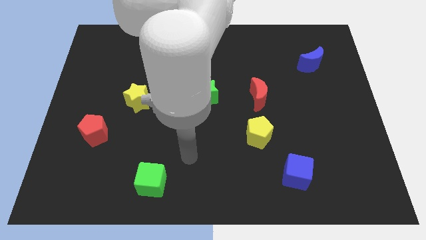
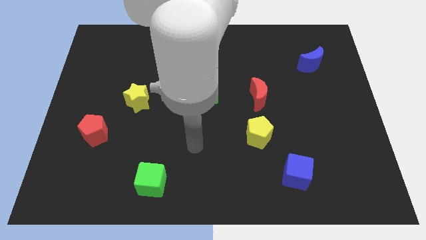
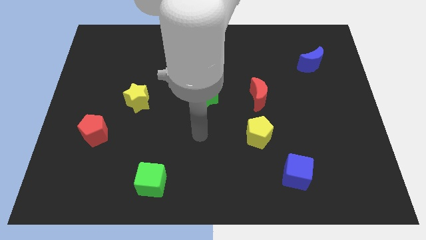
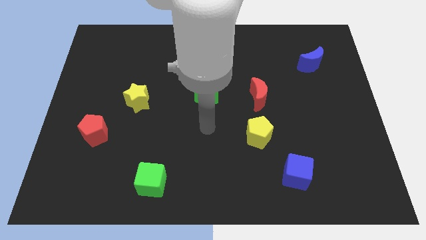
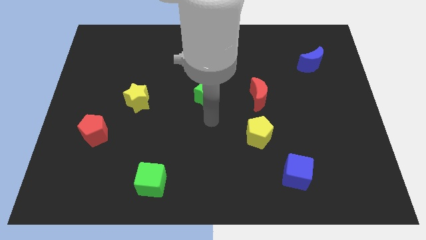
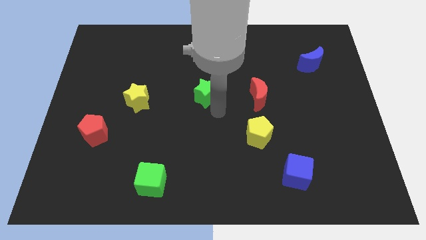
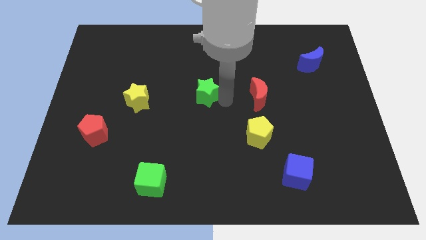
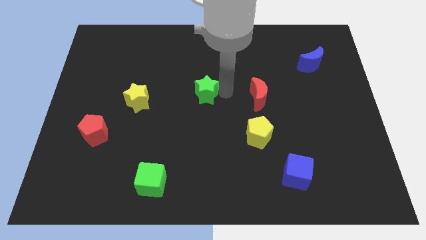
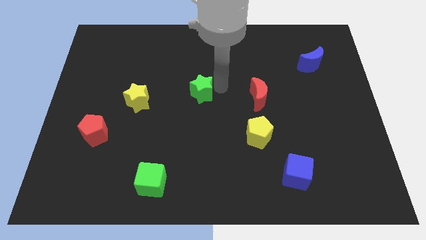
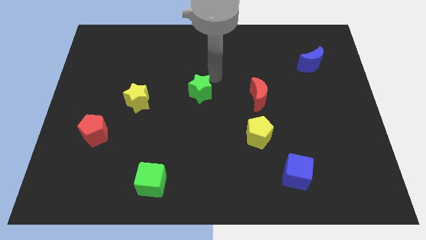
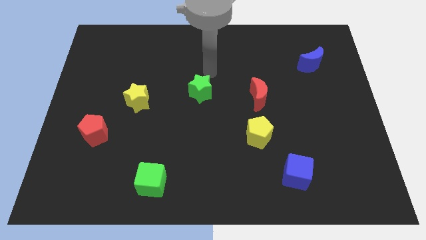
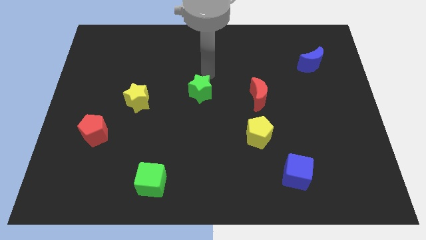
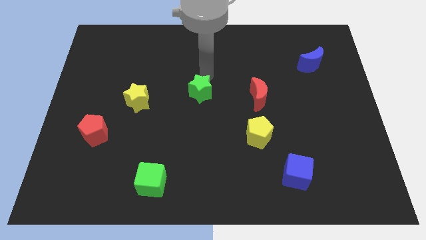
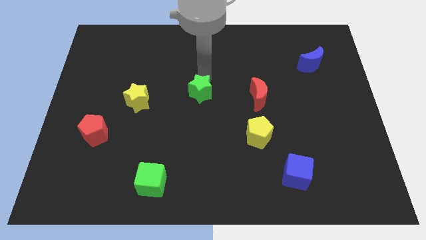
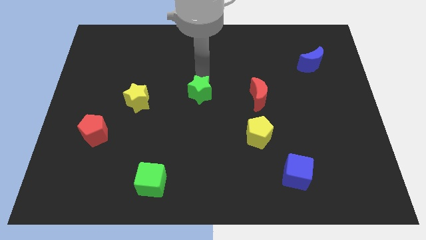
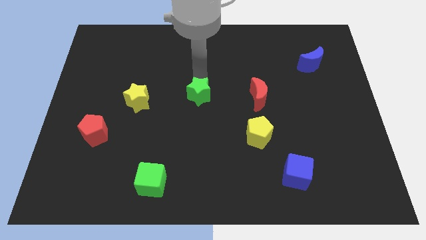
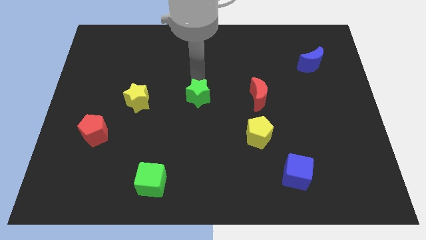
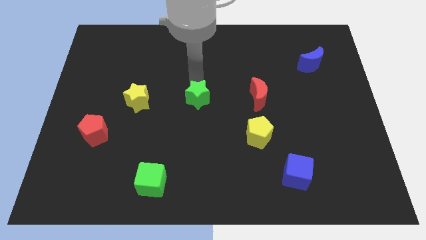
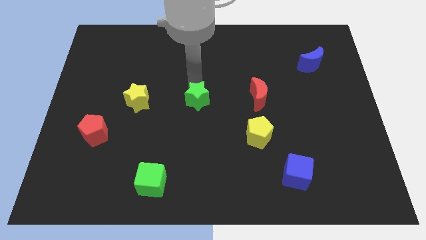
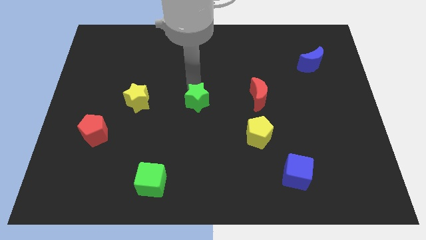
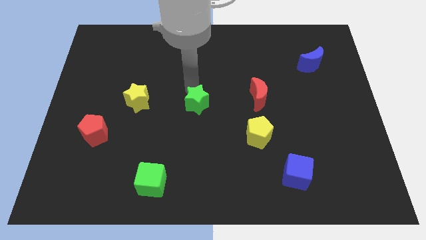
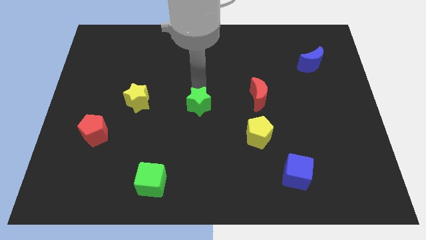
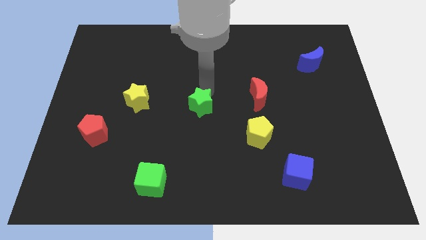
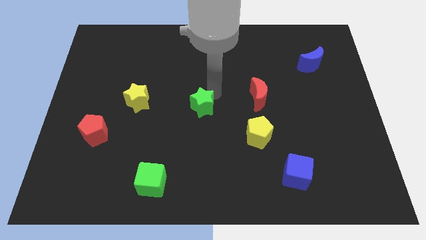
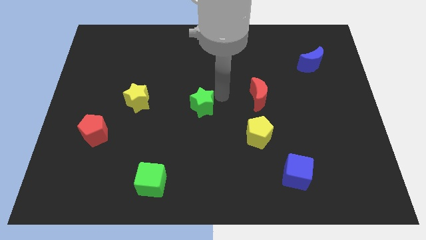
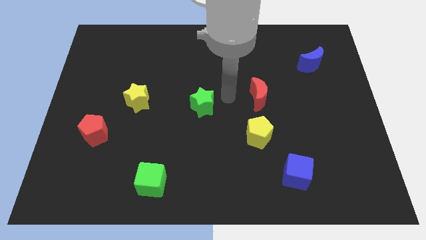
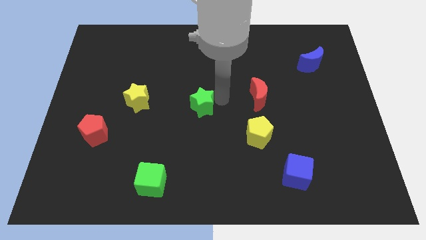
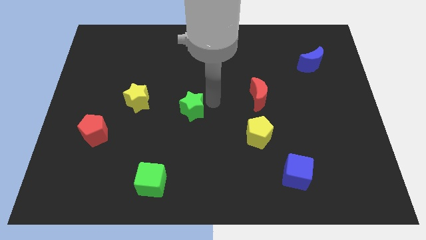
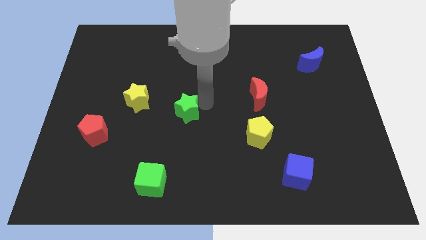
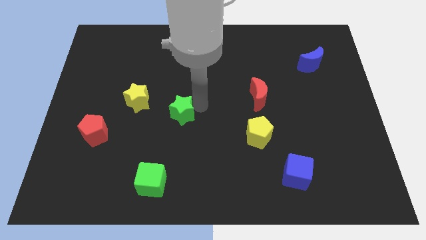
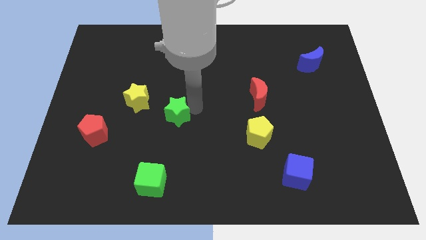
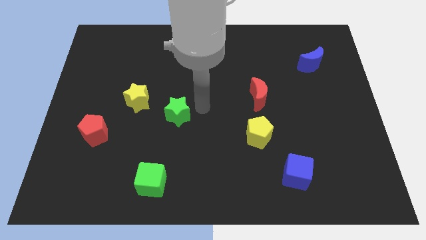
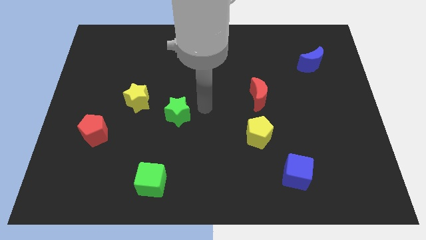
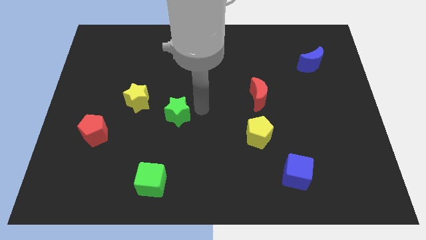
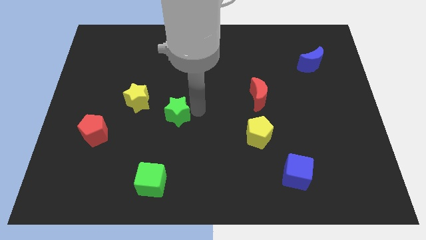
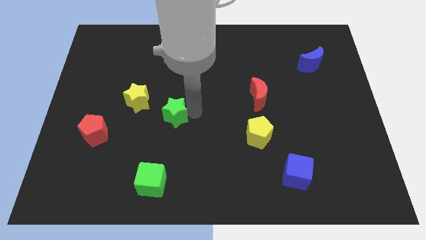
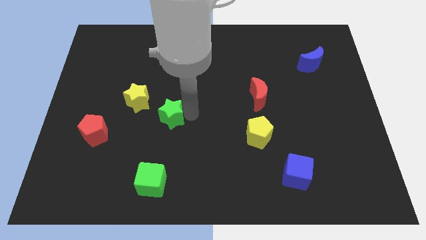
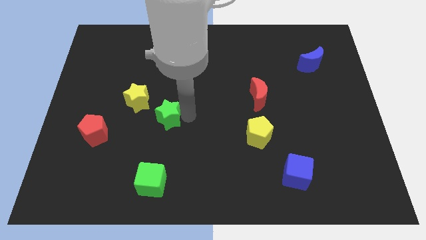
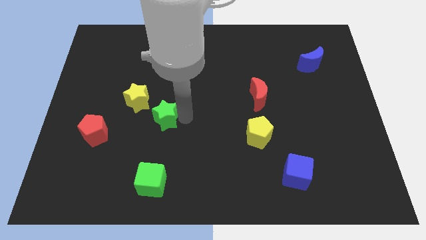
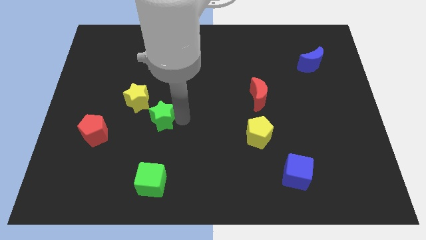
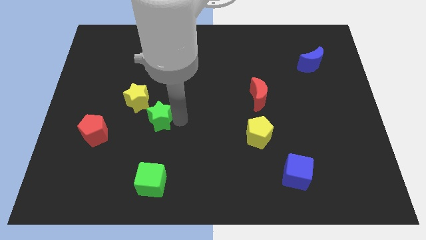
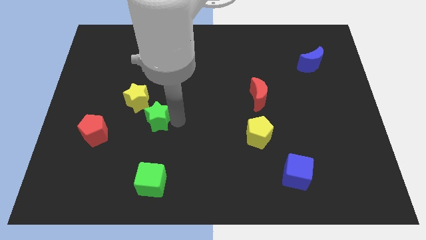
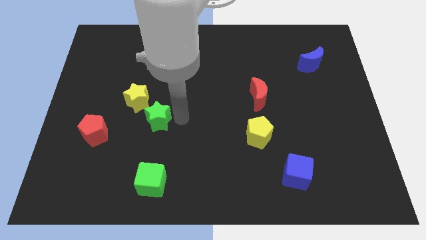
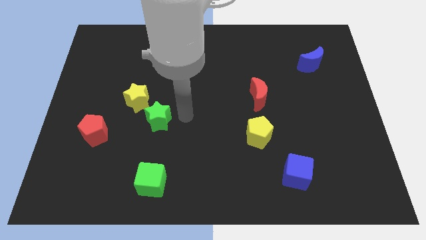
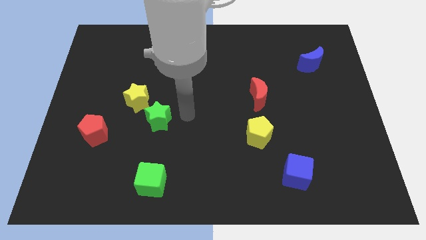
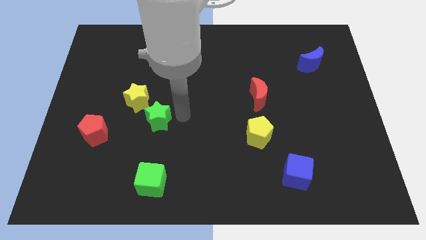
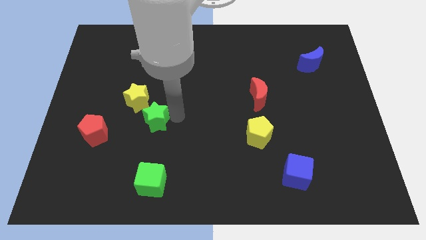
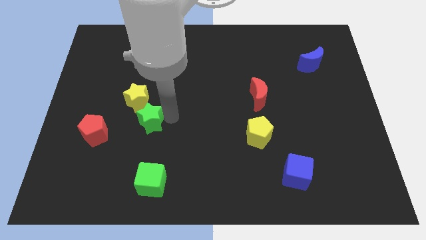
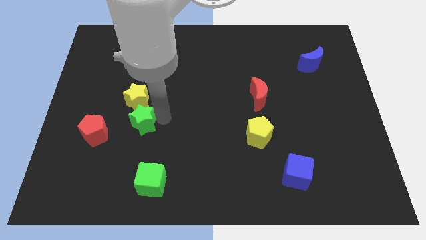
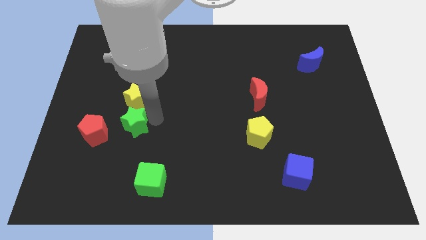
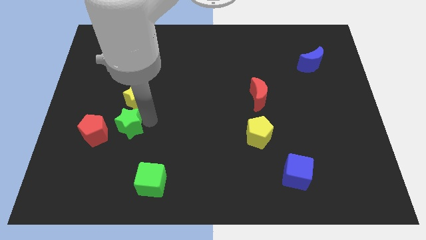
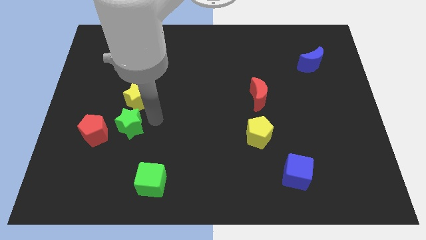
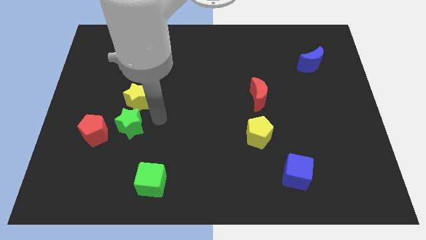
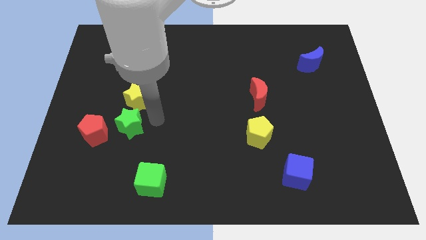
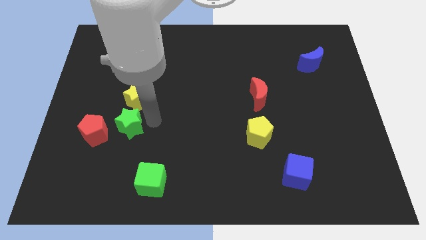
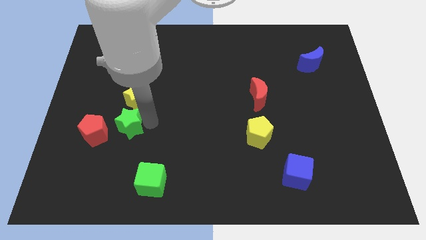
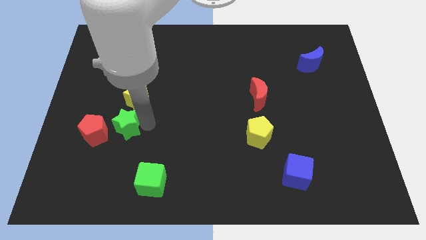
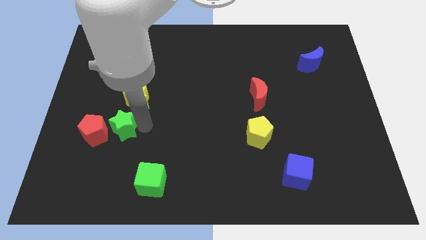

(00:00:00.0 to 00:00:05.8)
push the green star towards the red pentagon

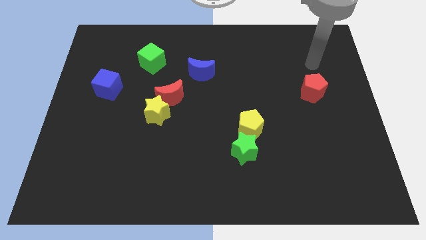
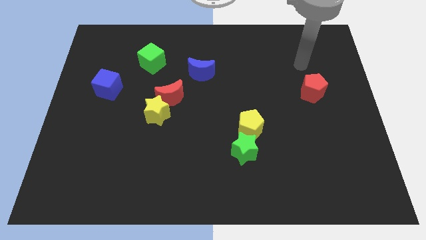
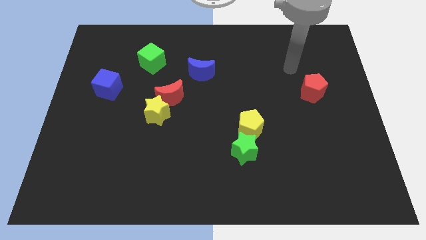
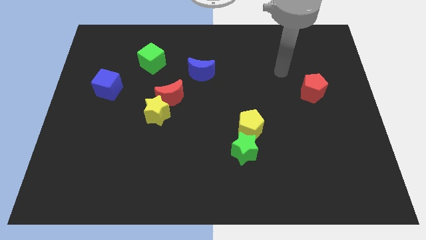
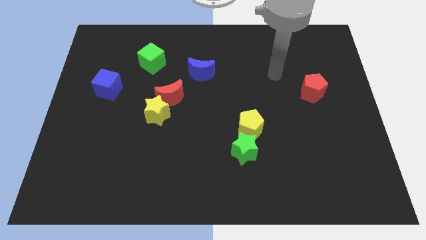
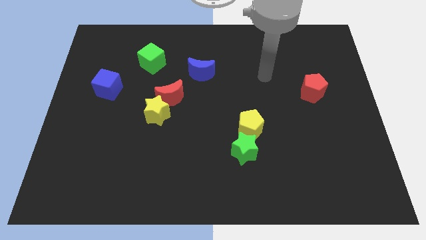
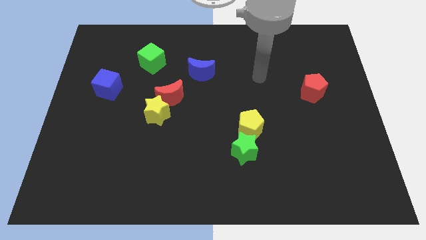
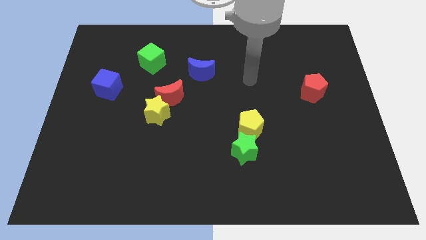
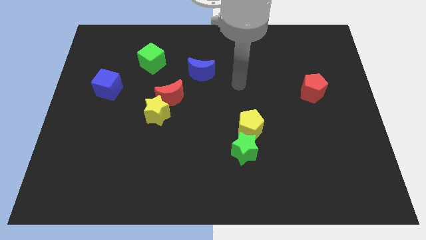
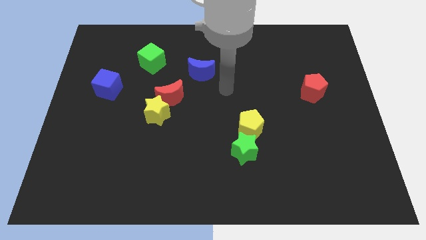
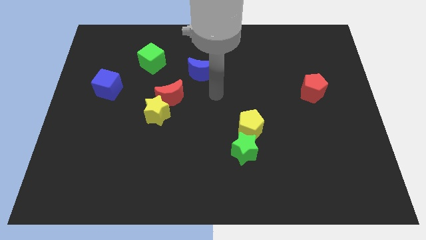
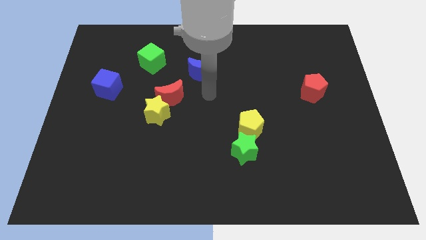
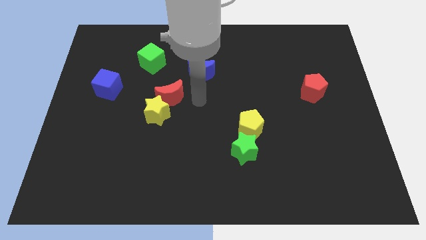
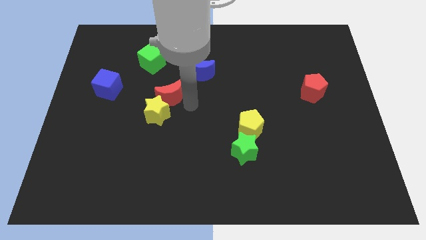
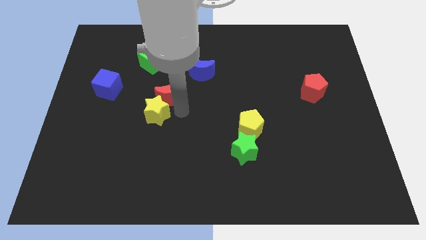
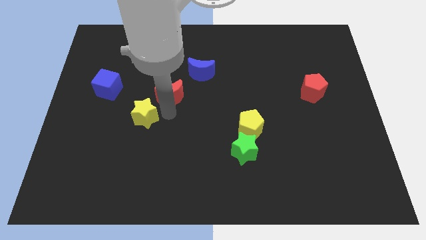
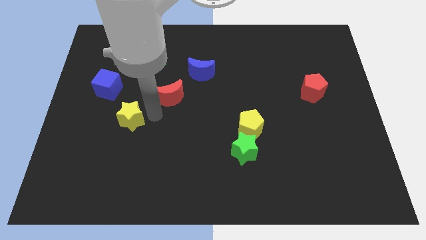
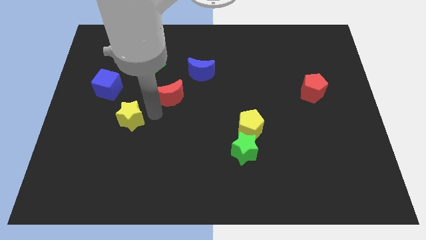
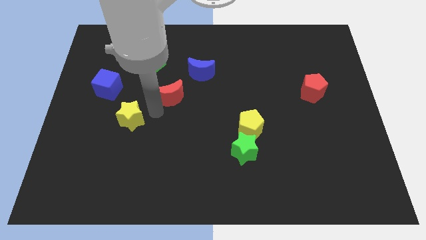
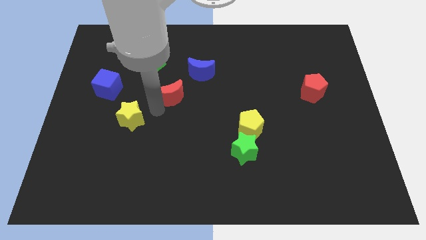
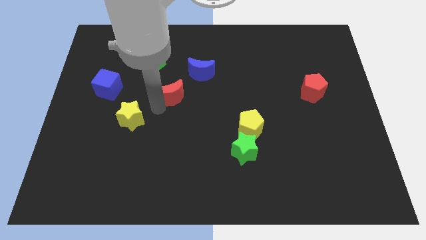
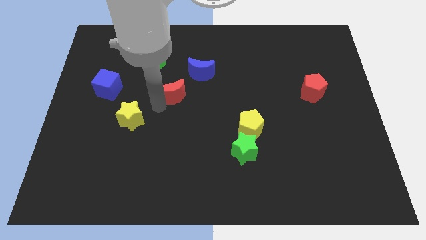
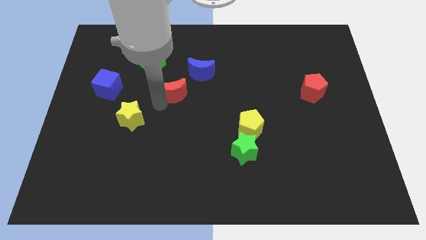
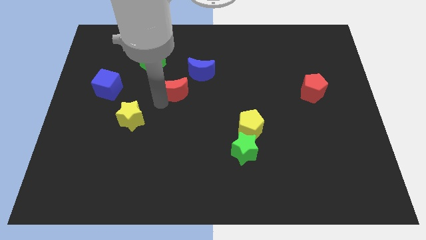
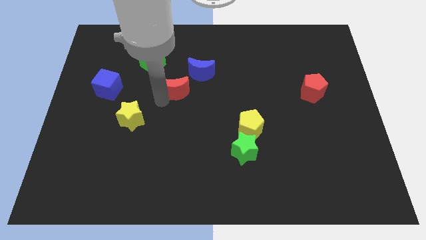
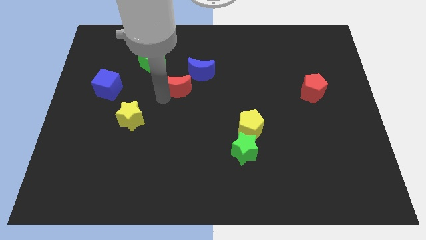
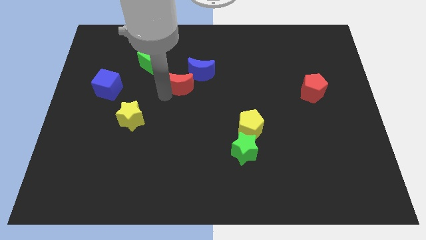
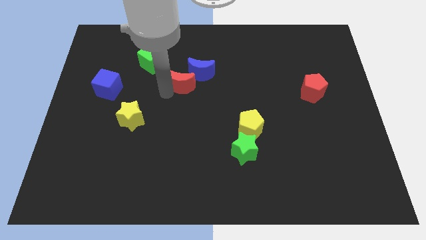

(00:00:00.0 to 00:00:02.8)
push the red moon next to the blue moon
